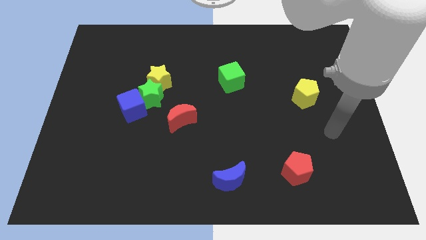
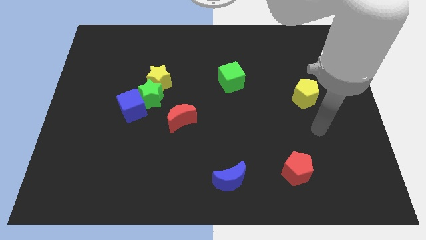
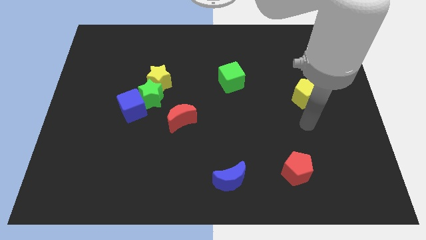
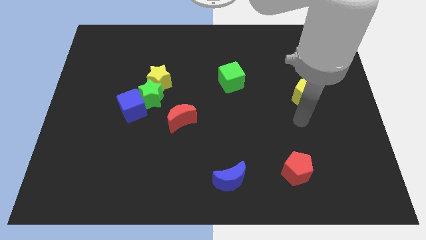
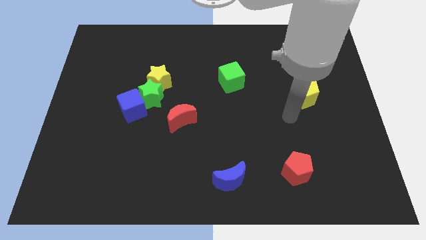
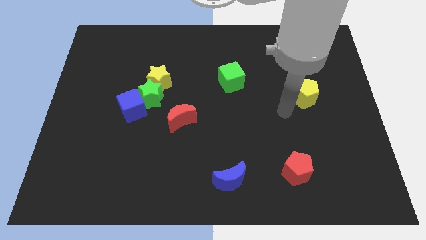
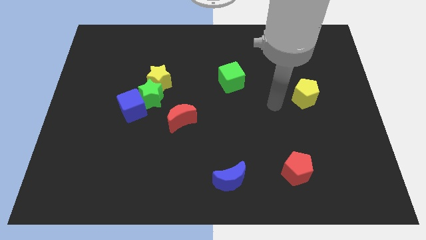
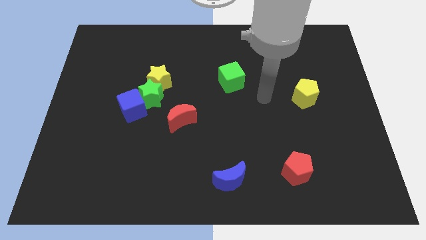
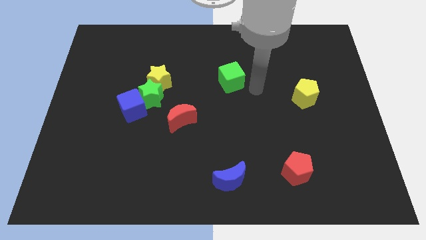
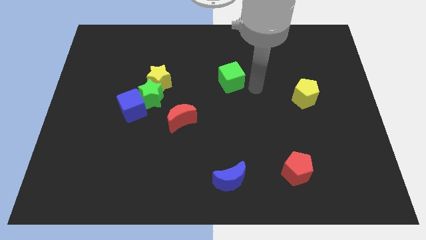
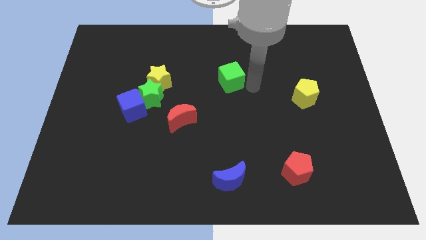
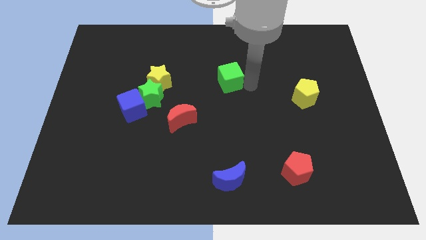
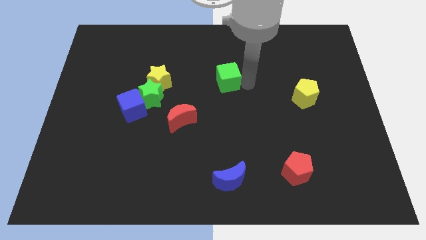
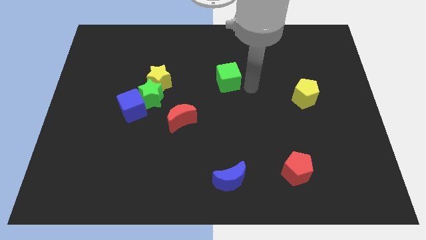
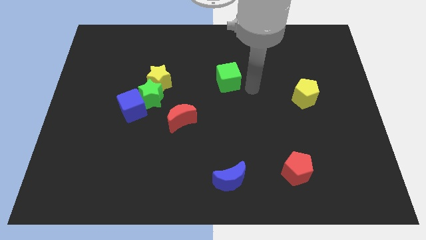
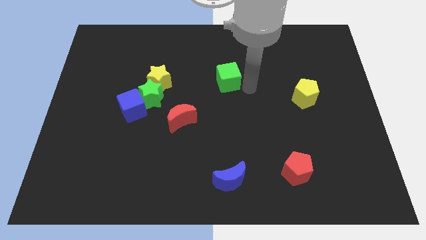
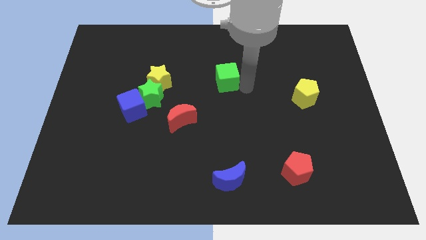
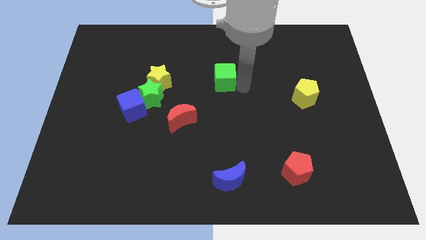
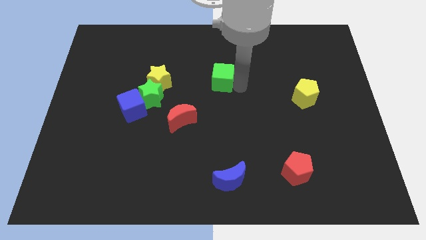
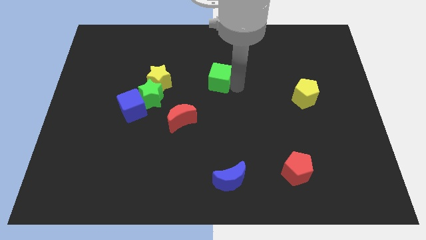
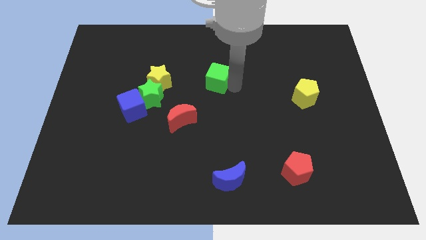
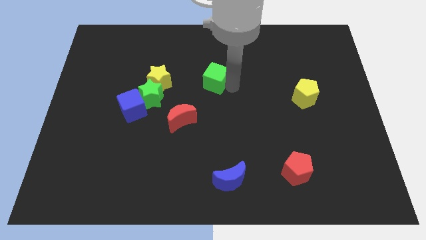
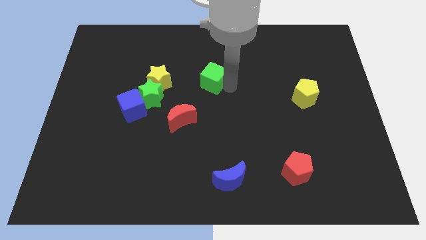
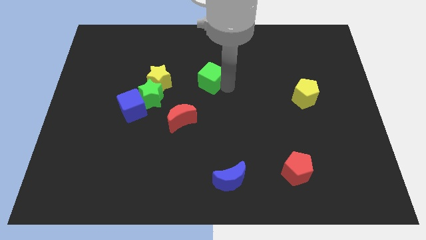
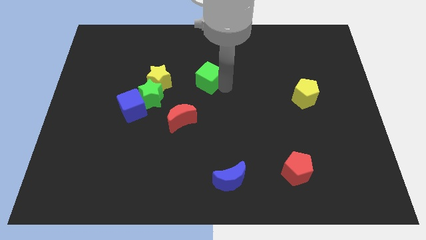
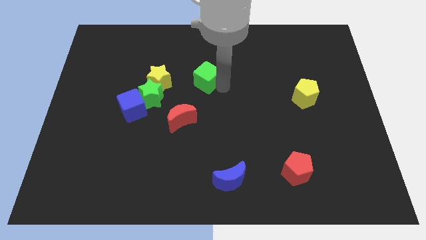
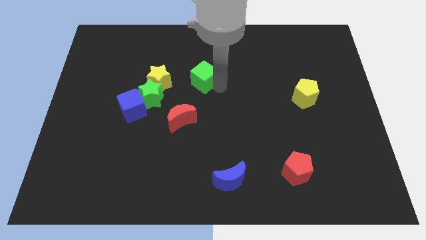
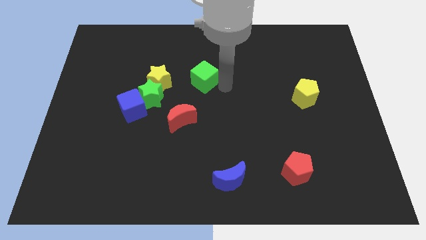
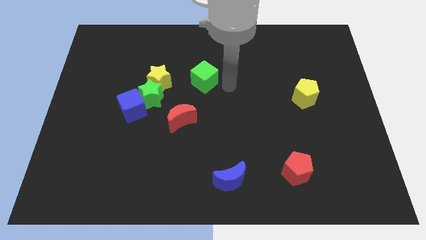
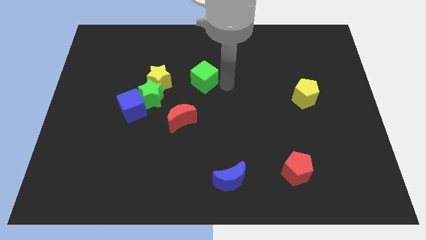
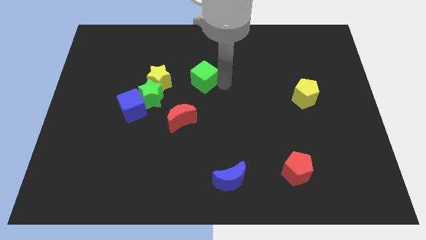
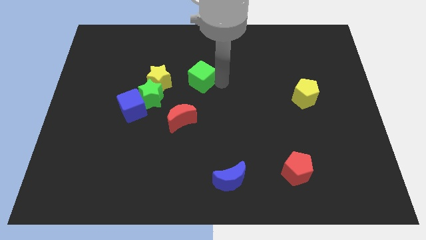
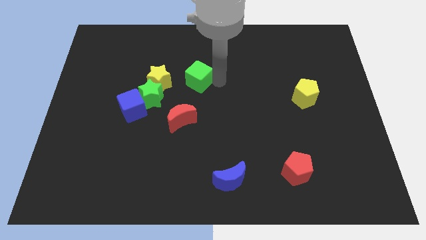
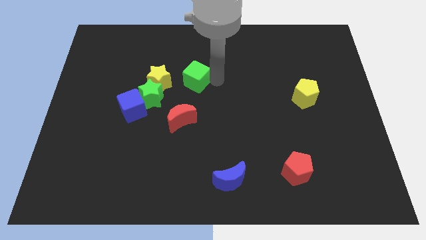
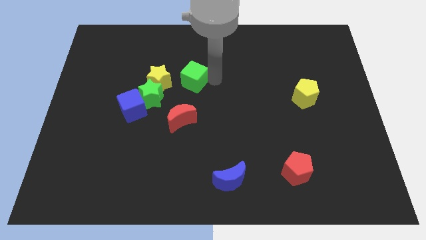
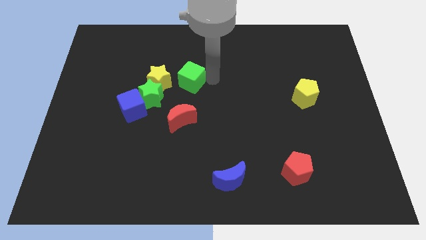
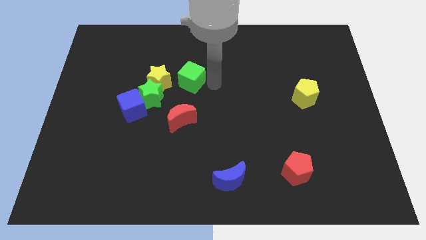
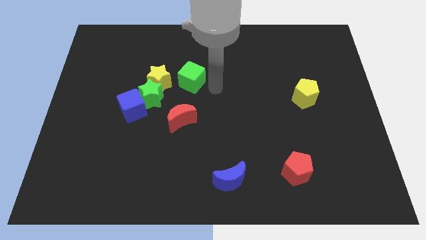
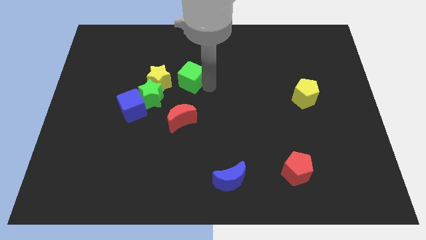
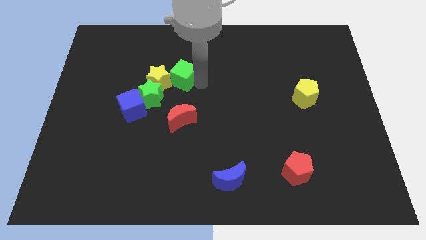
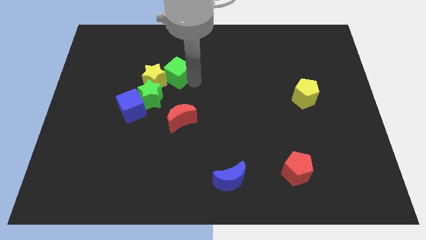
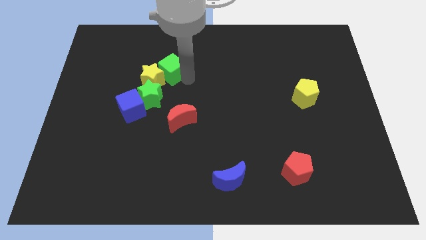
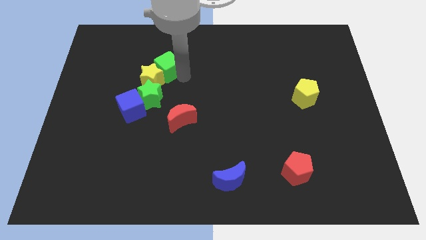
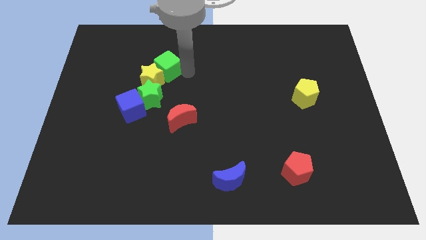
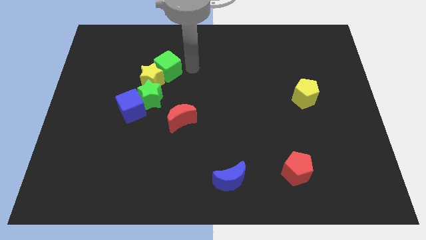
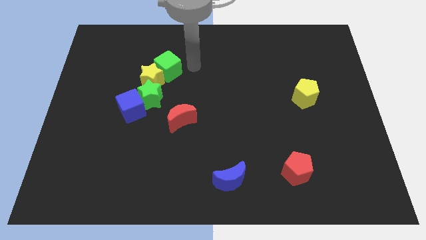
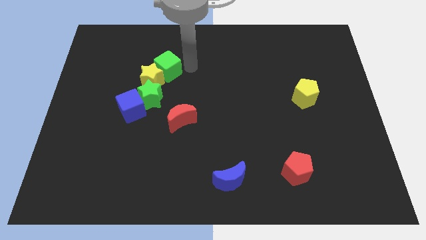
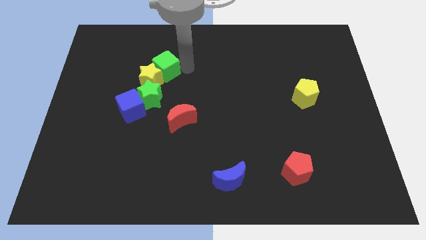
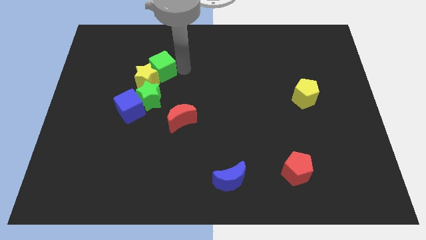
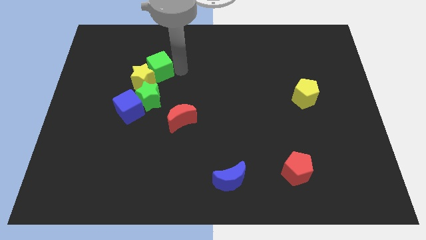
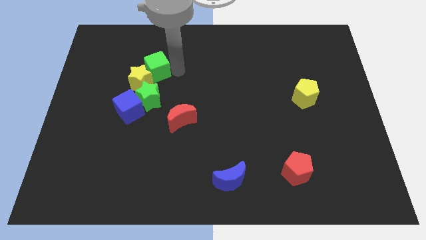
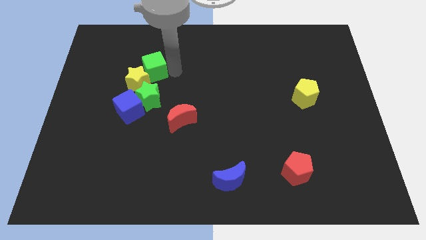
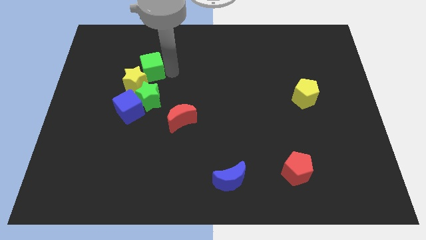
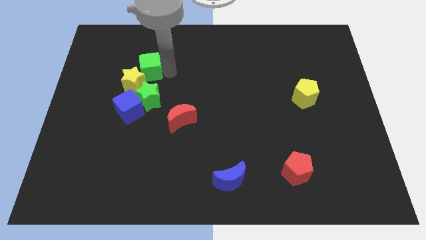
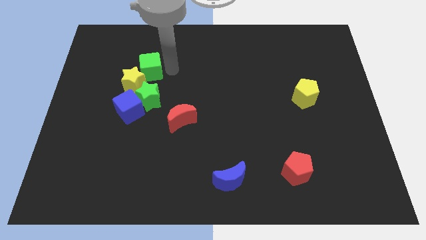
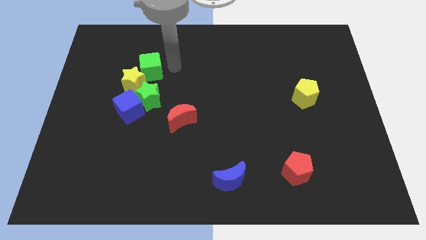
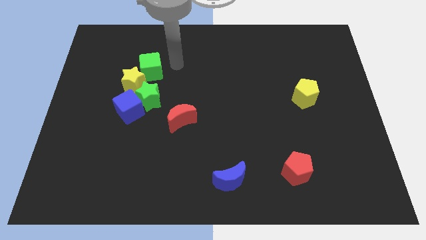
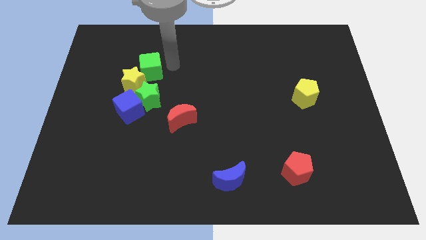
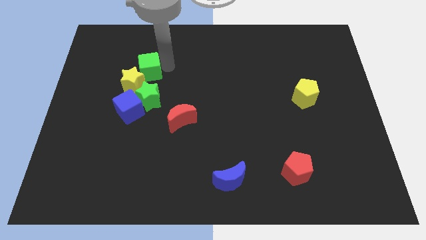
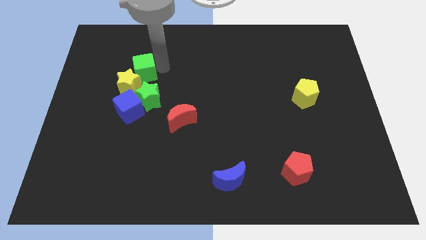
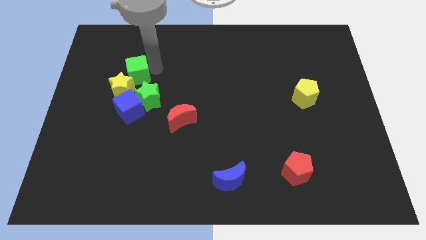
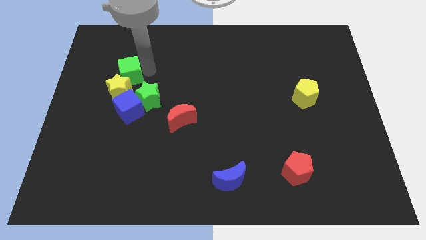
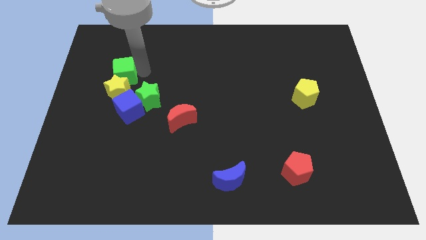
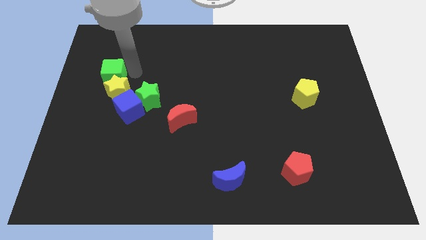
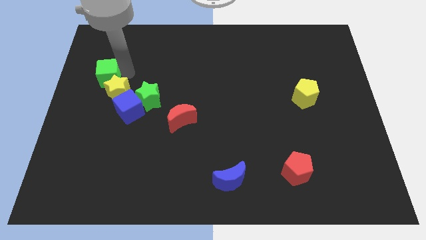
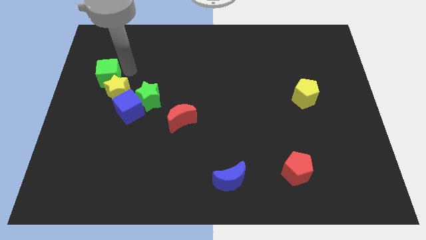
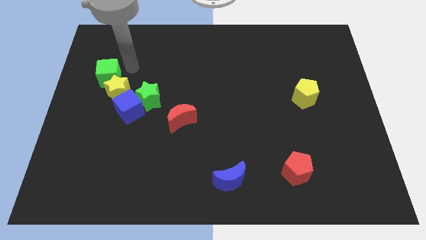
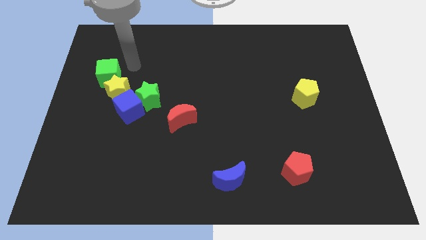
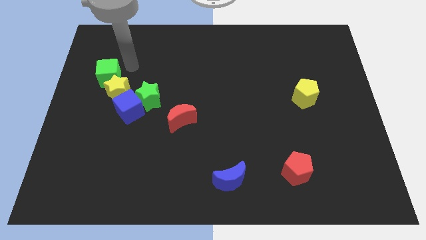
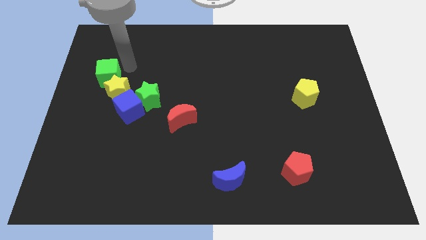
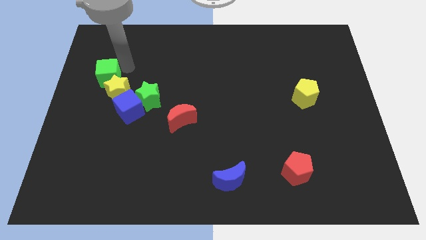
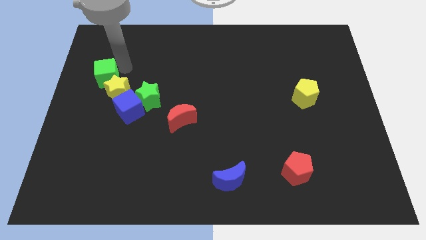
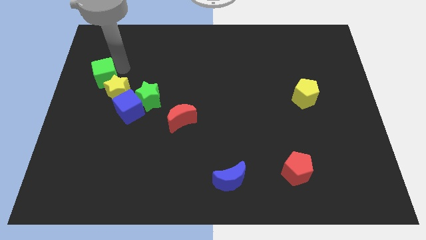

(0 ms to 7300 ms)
slide the green cube to the left side
